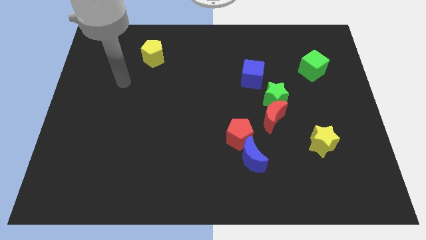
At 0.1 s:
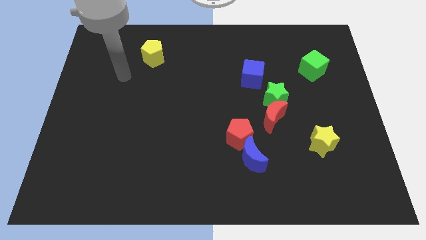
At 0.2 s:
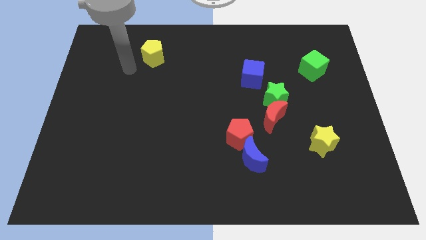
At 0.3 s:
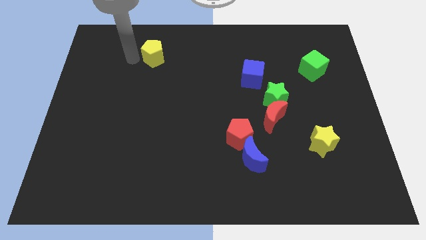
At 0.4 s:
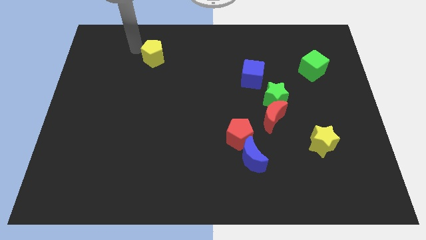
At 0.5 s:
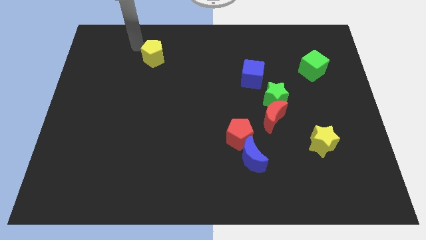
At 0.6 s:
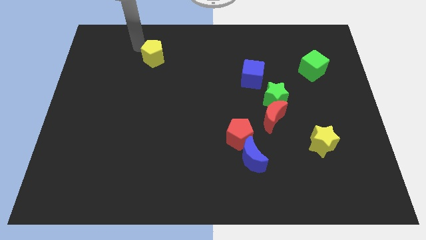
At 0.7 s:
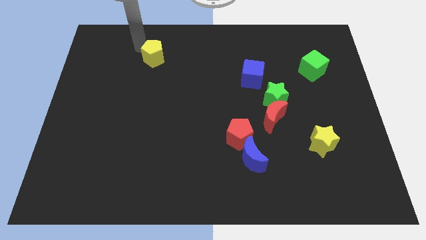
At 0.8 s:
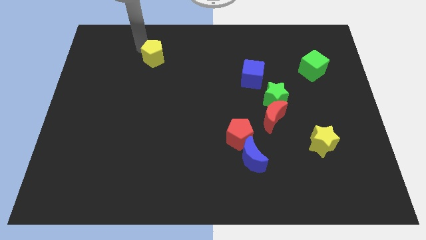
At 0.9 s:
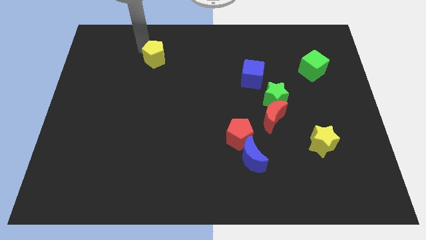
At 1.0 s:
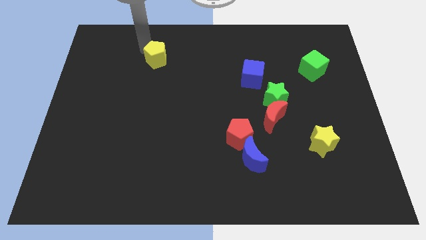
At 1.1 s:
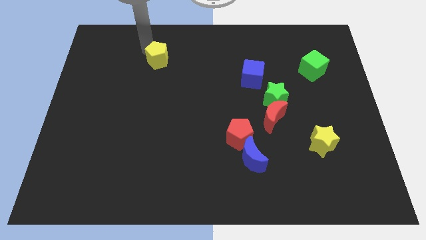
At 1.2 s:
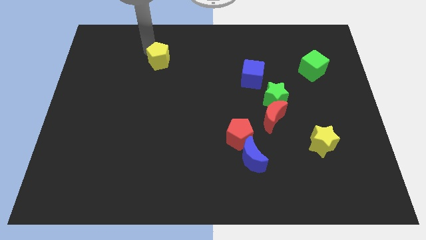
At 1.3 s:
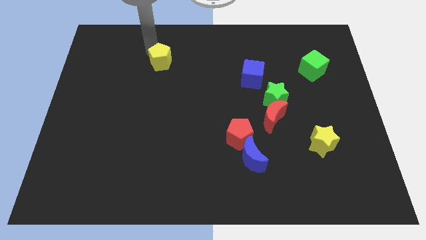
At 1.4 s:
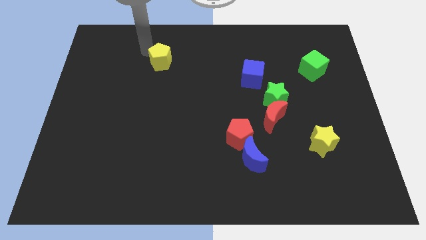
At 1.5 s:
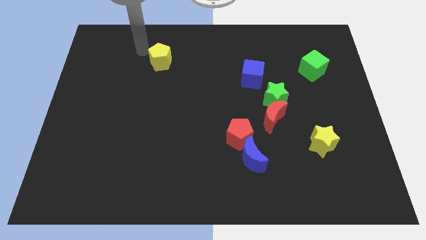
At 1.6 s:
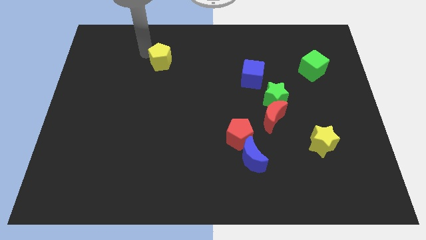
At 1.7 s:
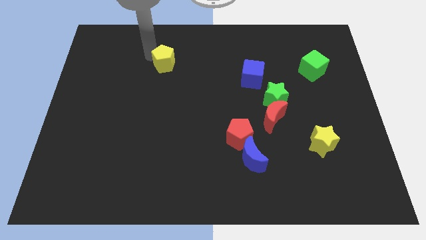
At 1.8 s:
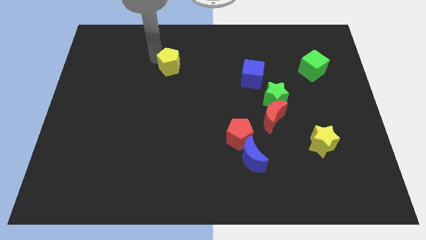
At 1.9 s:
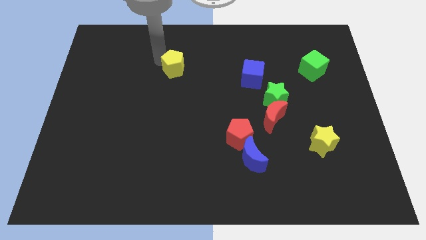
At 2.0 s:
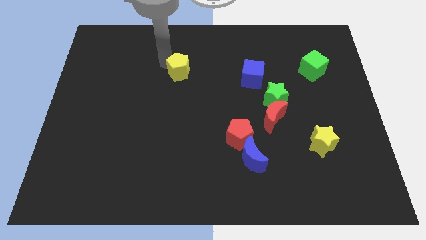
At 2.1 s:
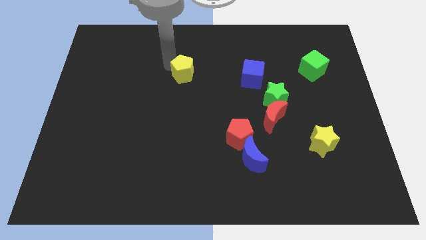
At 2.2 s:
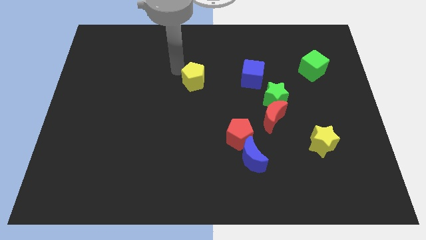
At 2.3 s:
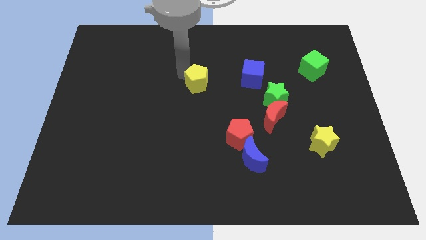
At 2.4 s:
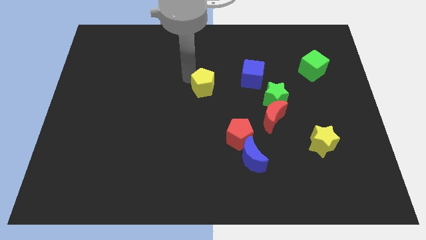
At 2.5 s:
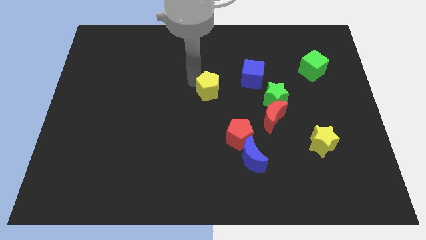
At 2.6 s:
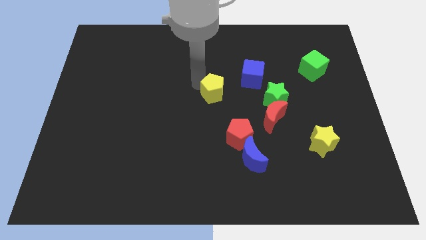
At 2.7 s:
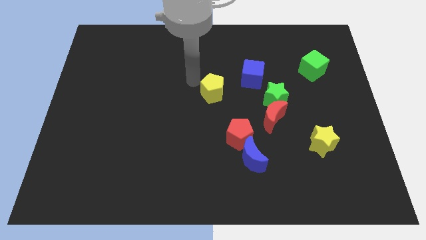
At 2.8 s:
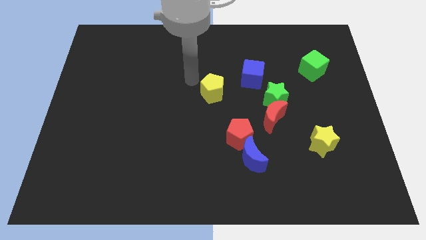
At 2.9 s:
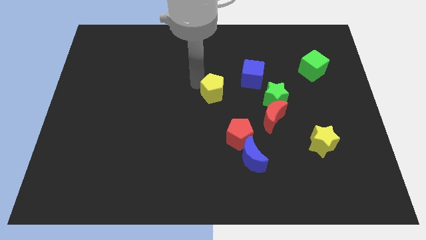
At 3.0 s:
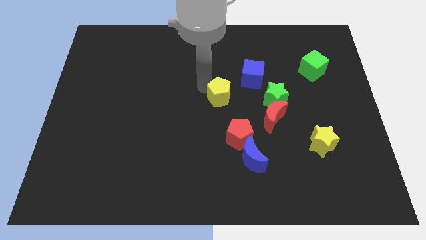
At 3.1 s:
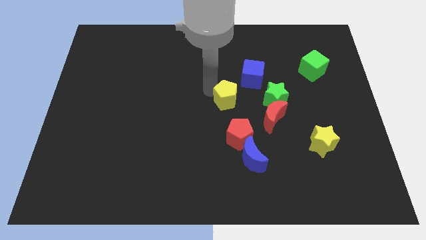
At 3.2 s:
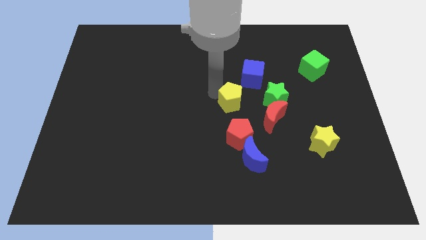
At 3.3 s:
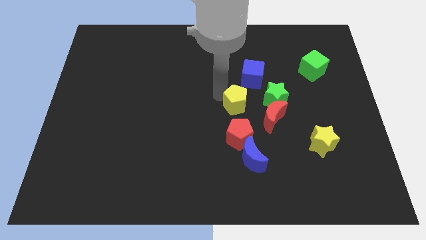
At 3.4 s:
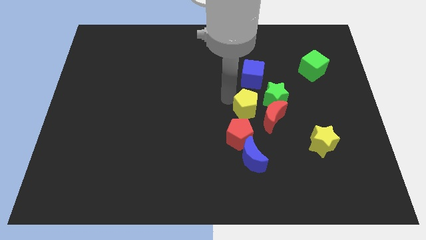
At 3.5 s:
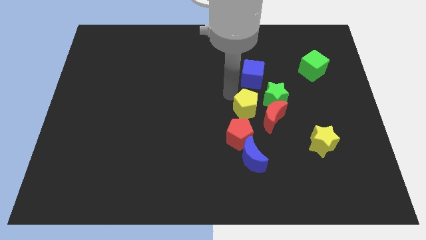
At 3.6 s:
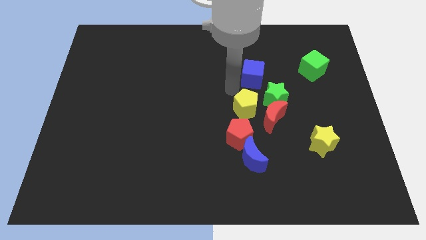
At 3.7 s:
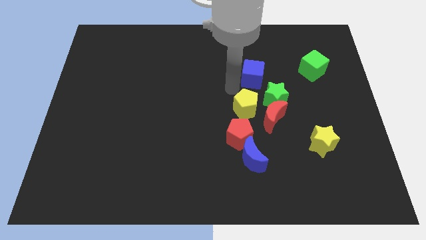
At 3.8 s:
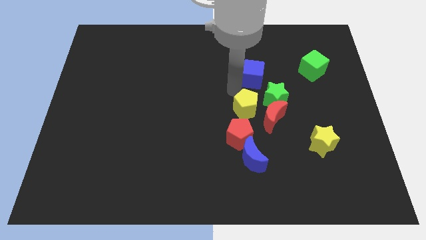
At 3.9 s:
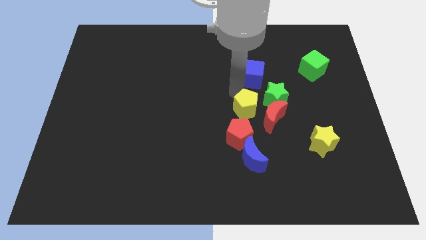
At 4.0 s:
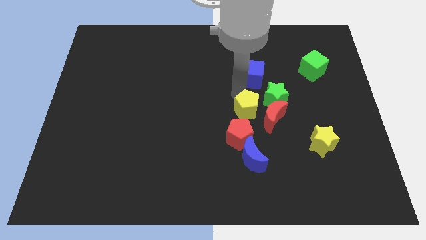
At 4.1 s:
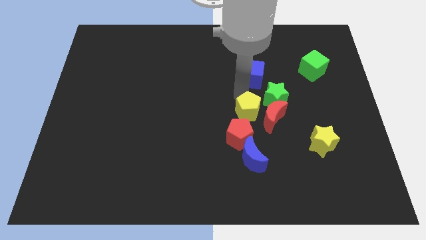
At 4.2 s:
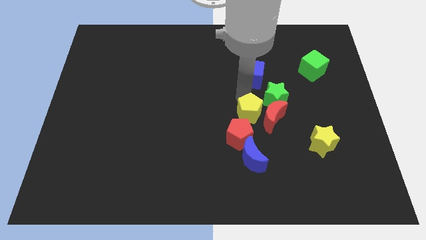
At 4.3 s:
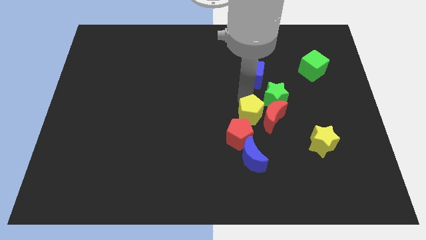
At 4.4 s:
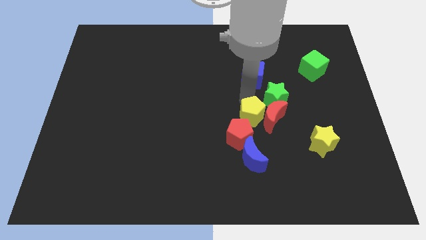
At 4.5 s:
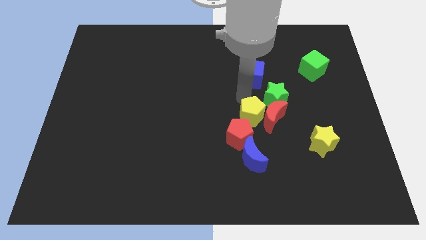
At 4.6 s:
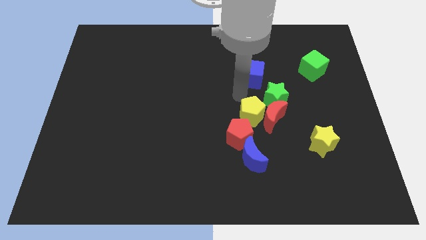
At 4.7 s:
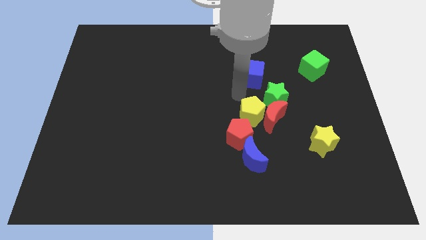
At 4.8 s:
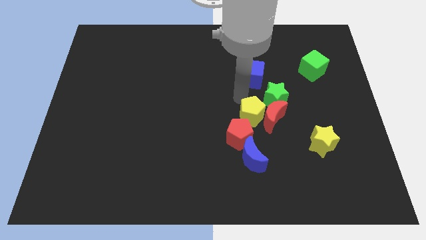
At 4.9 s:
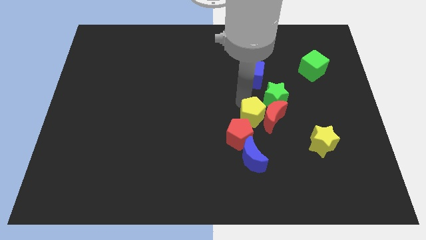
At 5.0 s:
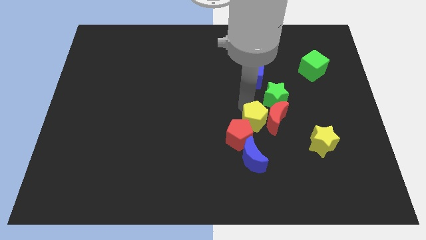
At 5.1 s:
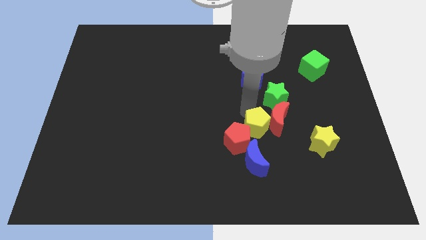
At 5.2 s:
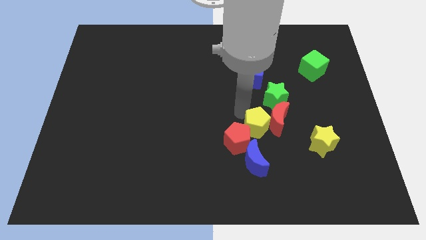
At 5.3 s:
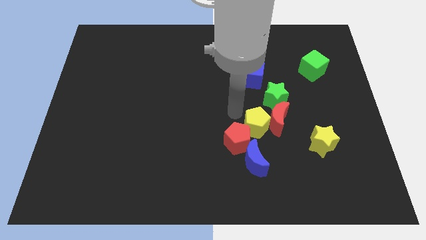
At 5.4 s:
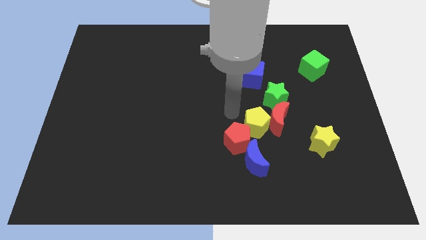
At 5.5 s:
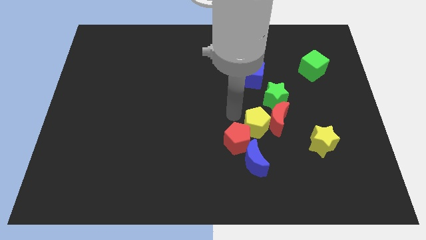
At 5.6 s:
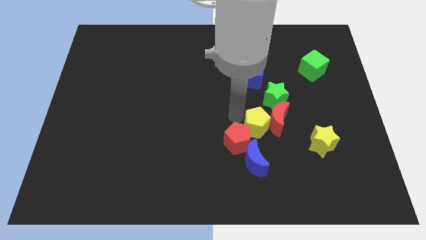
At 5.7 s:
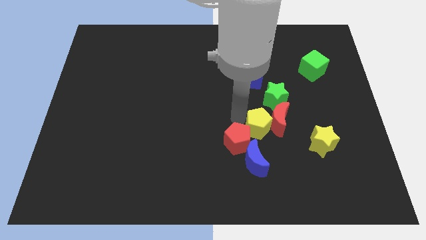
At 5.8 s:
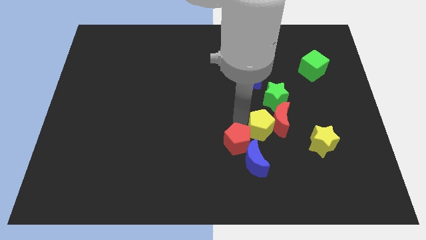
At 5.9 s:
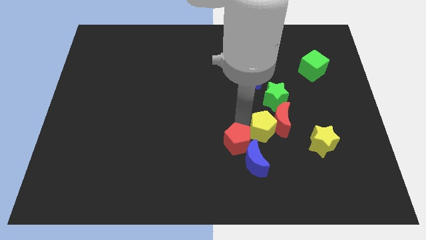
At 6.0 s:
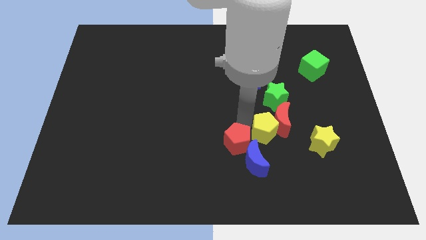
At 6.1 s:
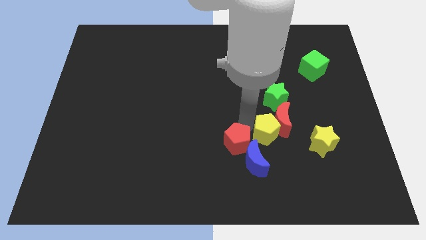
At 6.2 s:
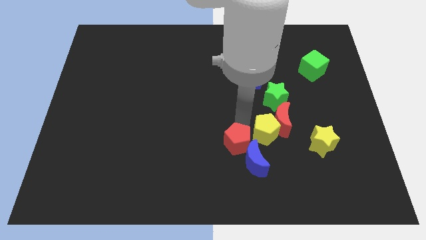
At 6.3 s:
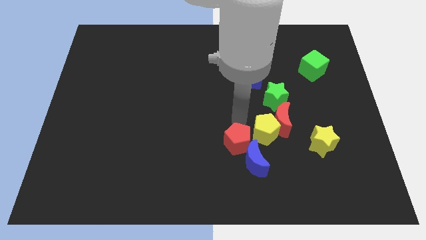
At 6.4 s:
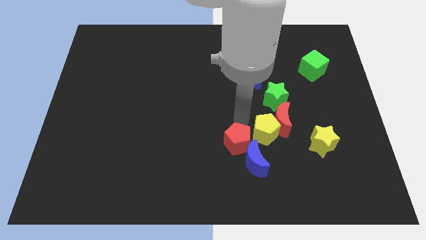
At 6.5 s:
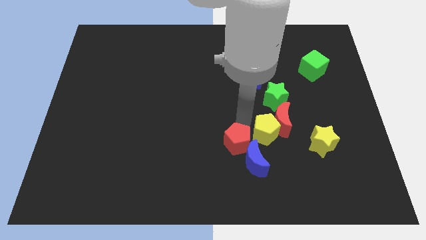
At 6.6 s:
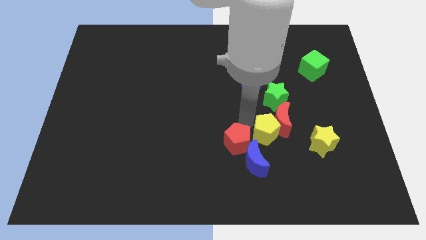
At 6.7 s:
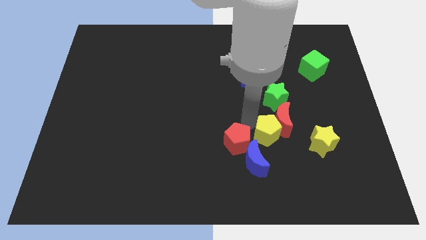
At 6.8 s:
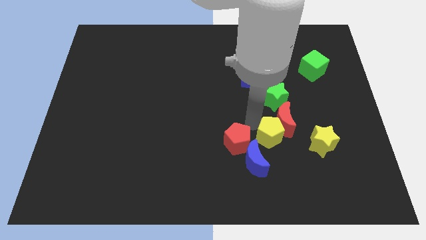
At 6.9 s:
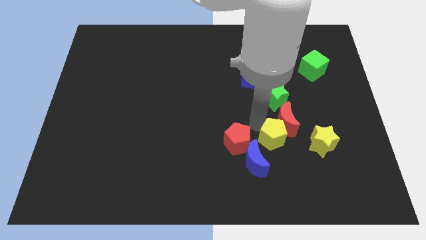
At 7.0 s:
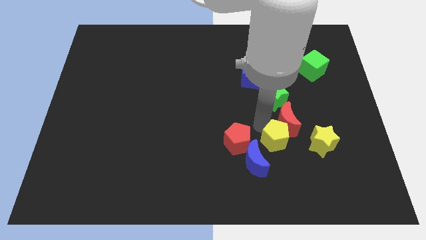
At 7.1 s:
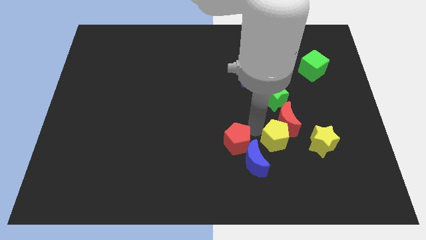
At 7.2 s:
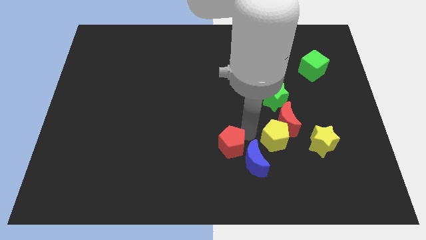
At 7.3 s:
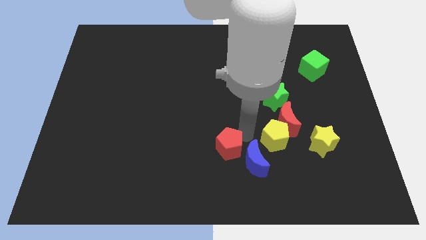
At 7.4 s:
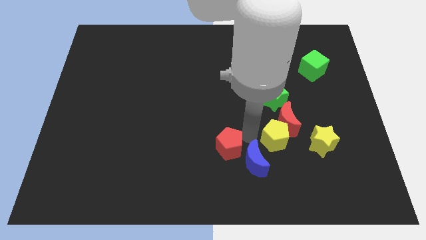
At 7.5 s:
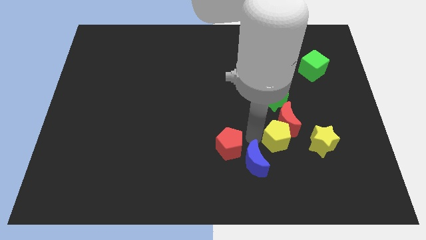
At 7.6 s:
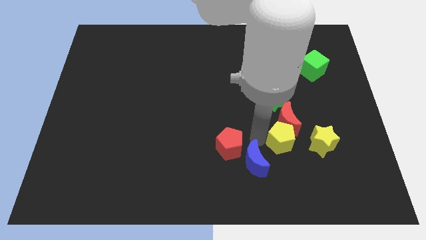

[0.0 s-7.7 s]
push the yellow pentagon to the bottom right side of the red moon
